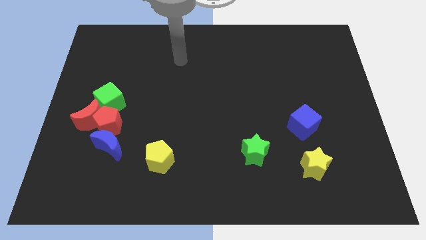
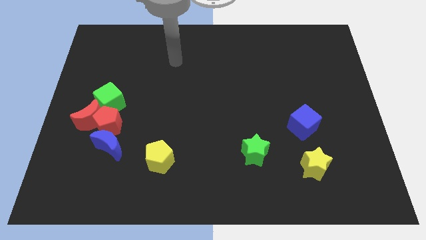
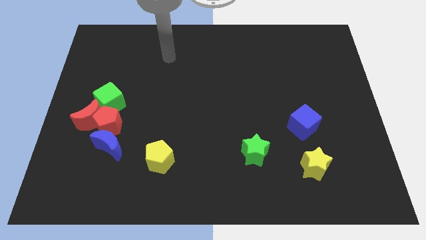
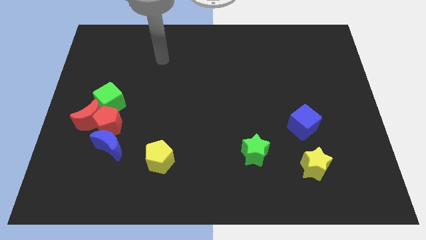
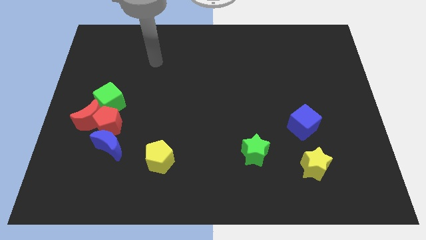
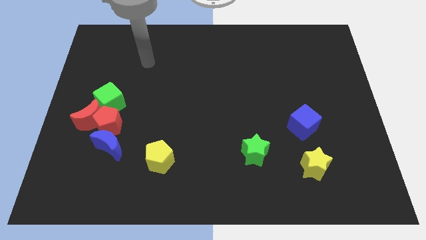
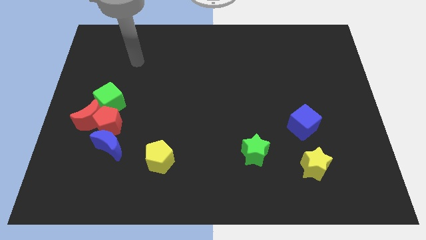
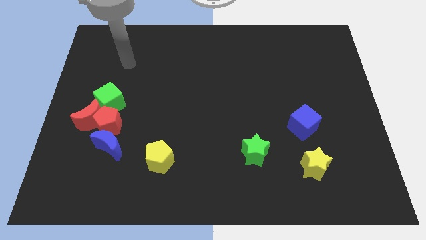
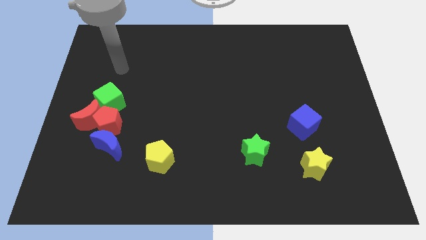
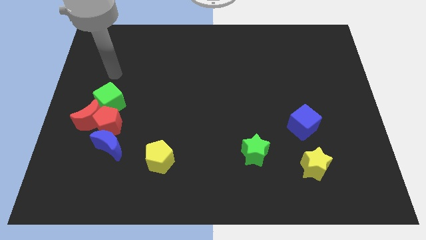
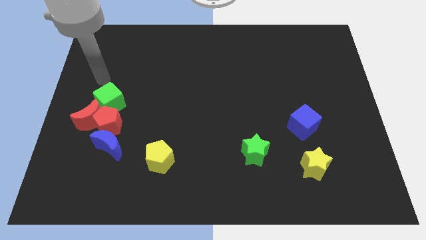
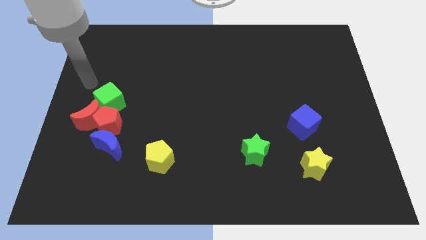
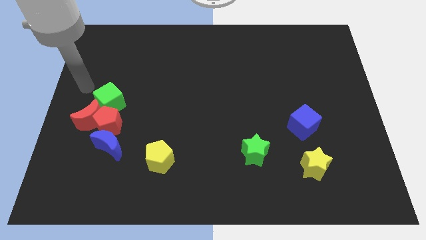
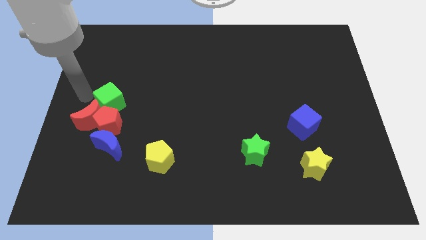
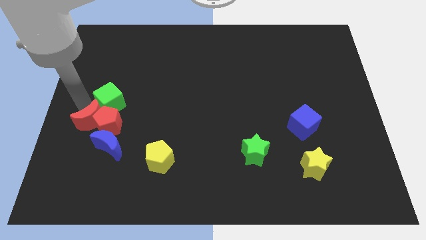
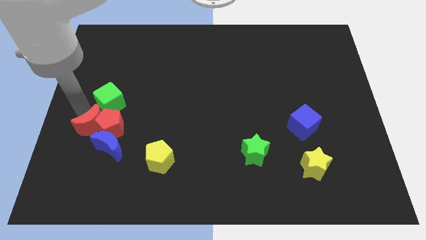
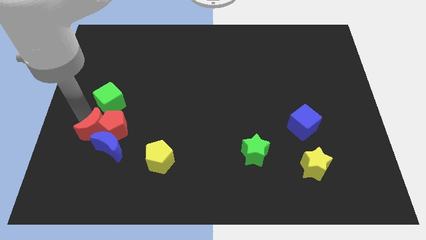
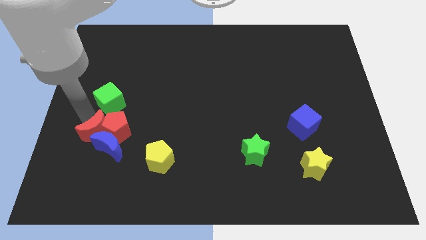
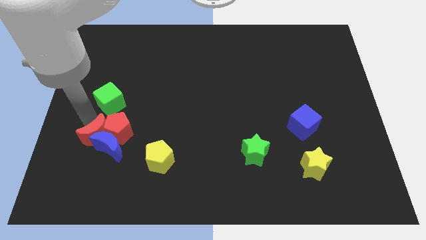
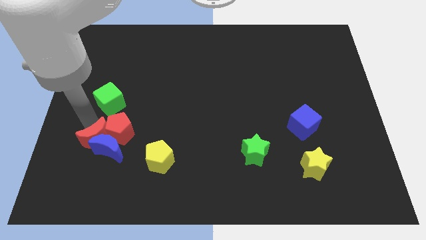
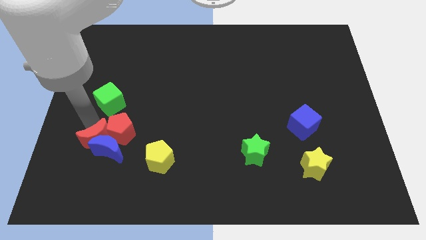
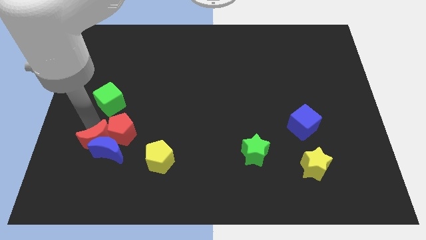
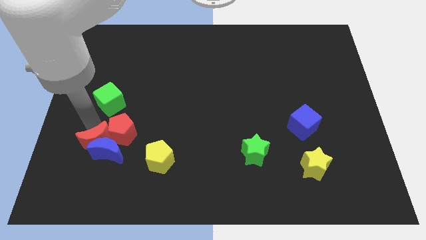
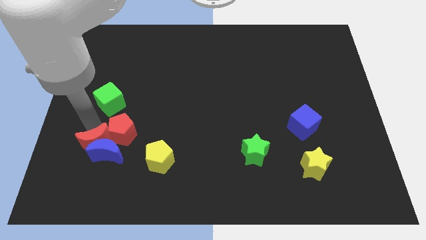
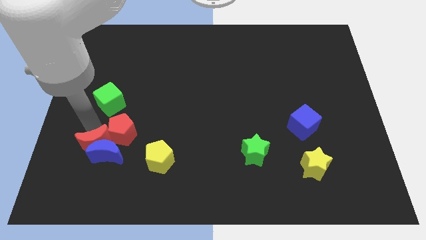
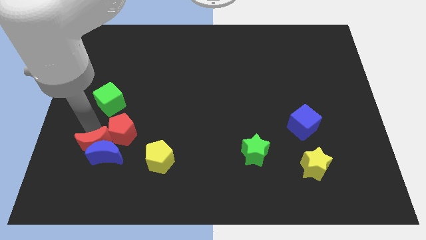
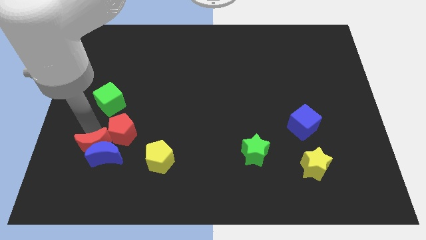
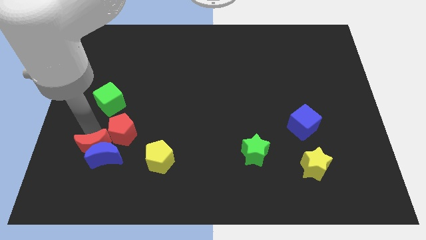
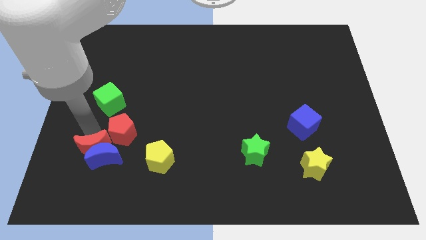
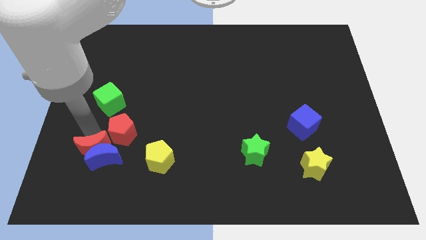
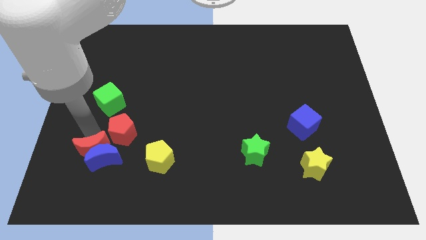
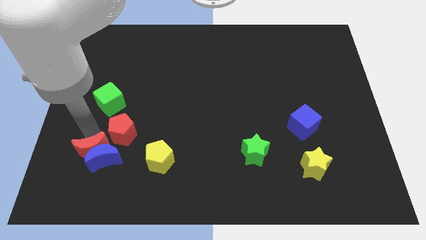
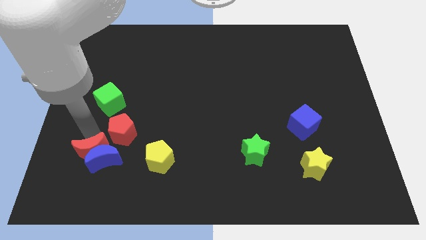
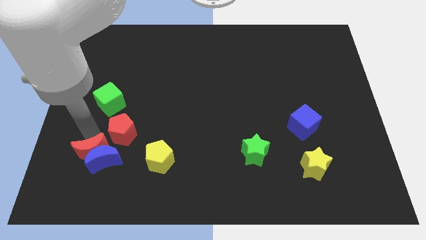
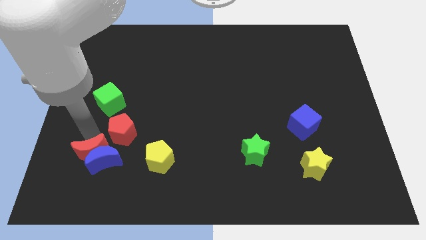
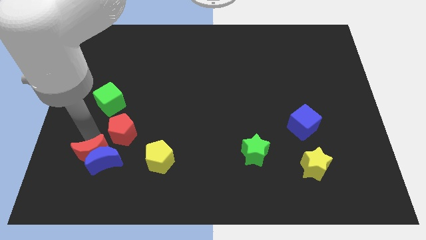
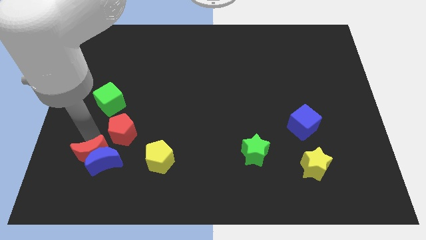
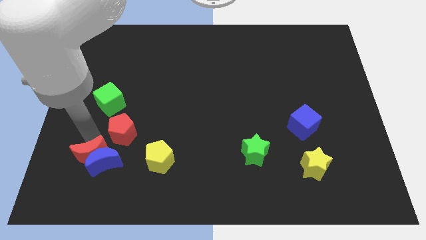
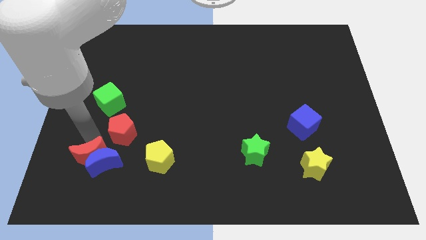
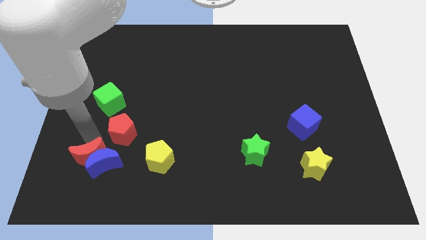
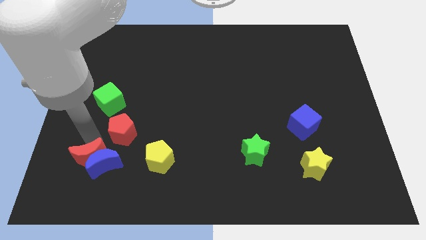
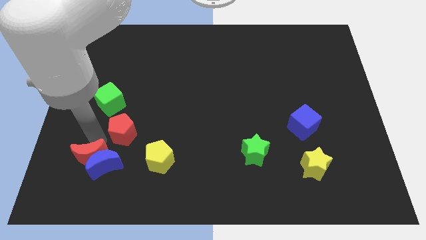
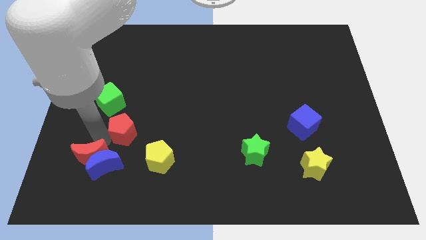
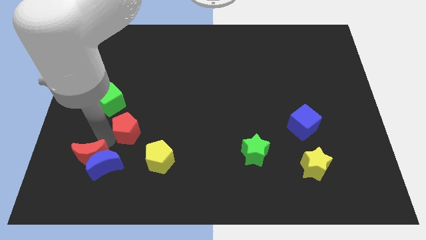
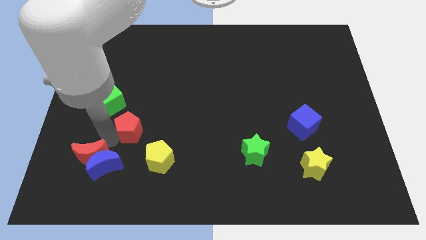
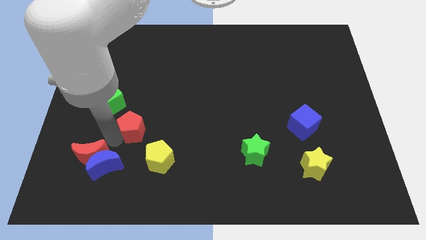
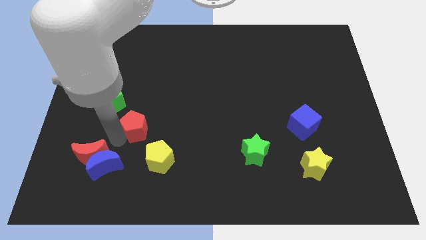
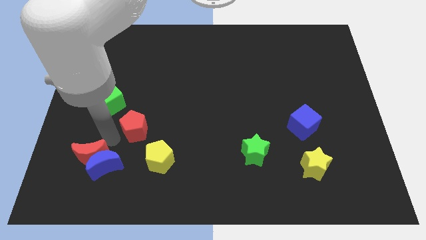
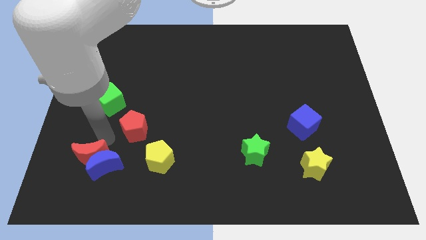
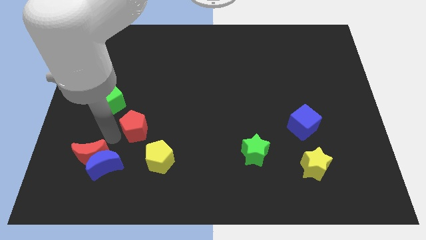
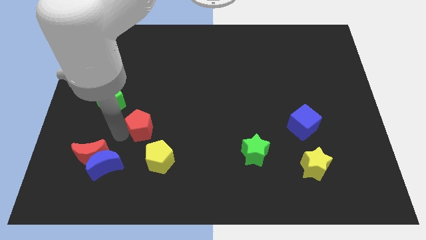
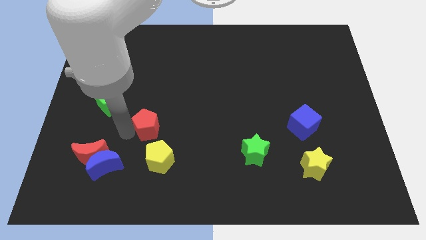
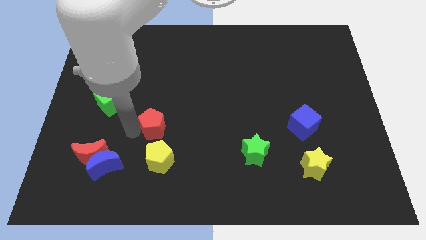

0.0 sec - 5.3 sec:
pull the red pentagon apart from the red moon, blue moon, and green cube

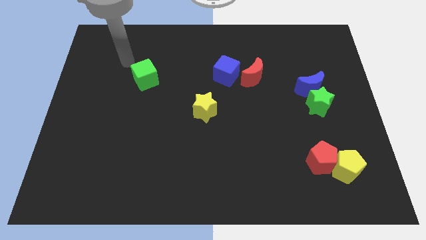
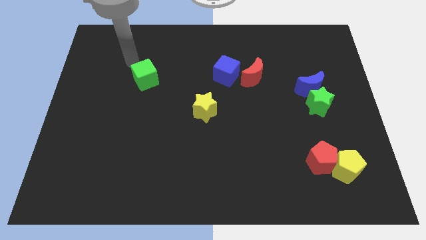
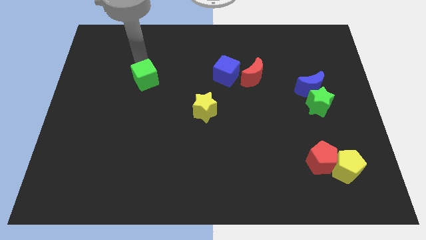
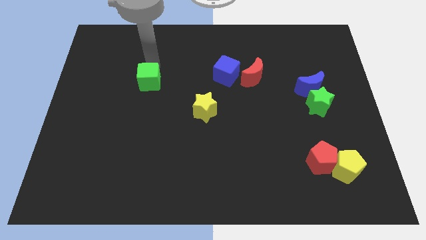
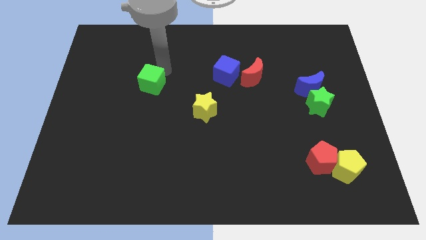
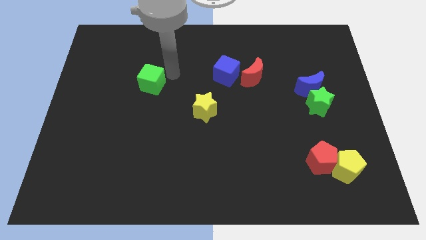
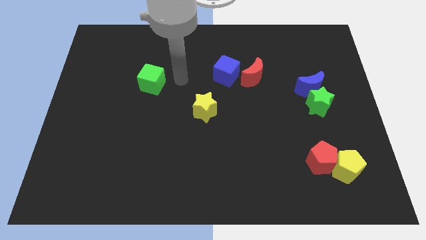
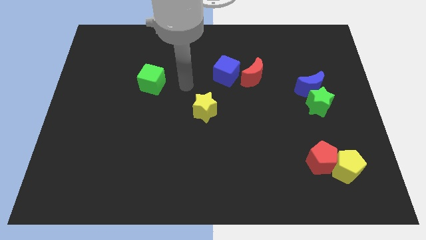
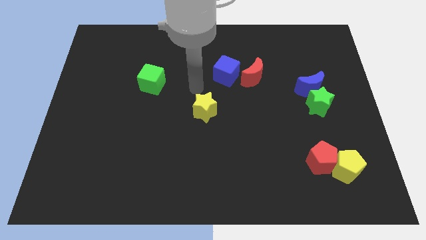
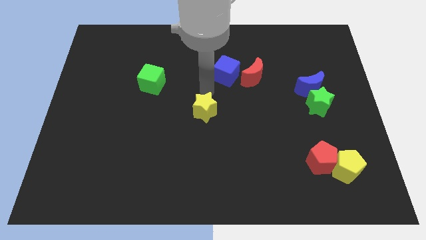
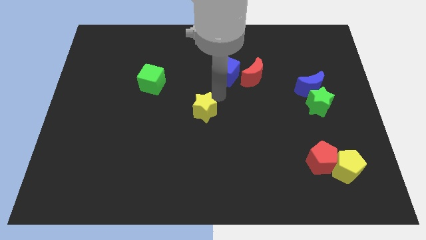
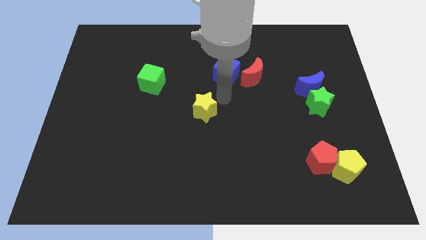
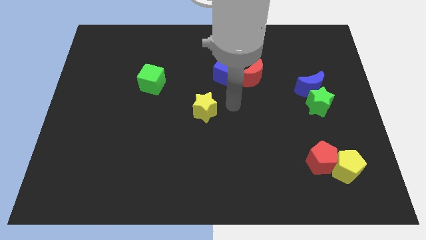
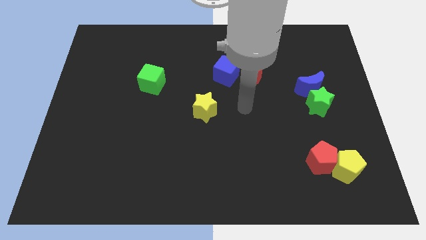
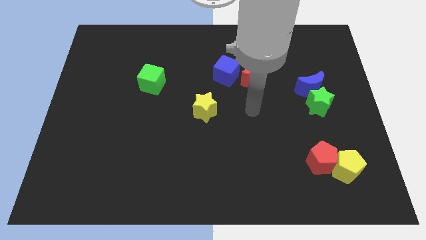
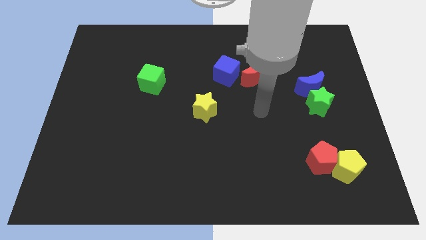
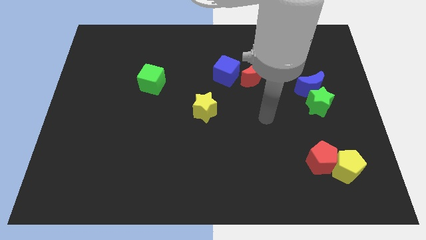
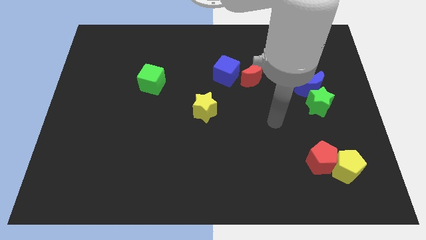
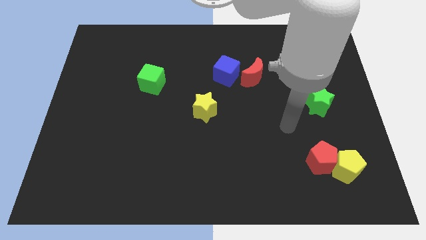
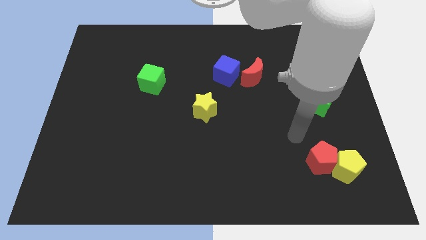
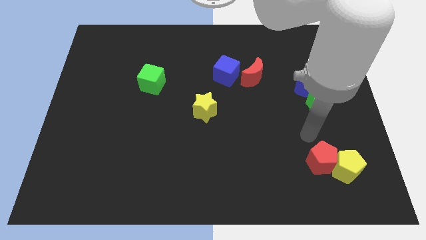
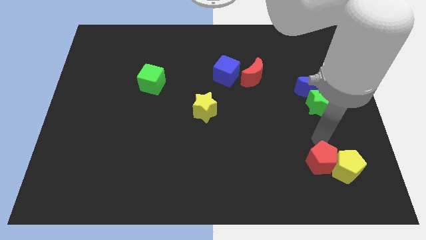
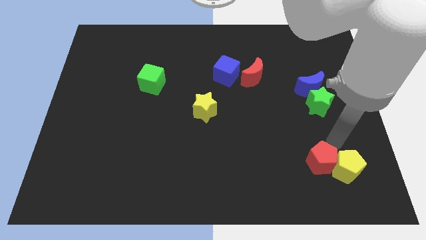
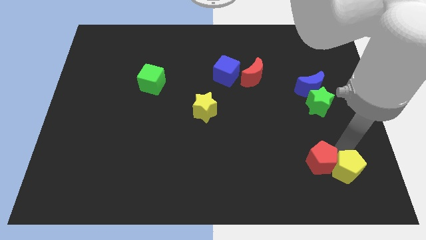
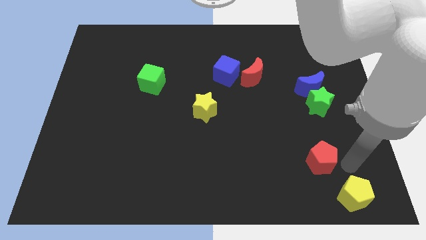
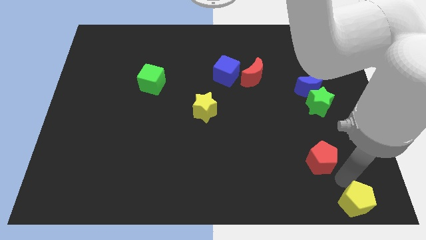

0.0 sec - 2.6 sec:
pull the red pentagon apart from the yellow pentagon

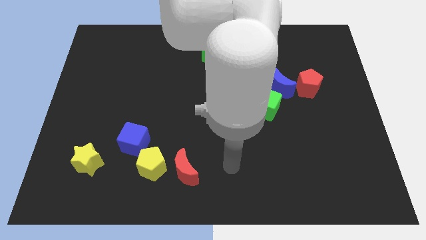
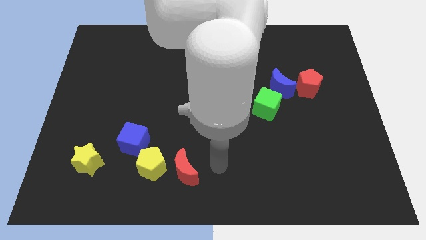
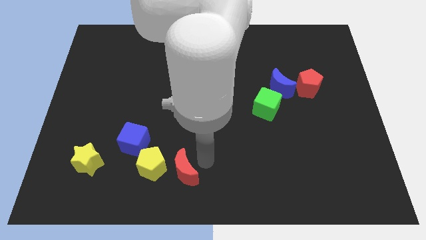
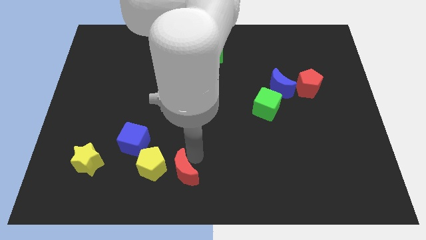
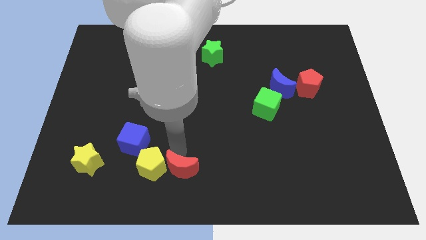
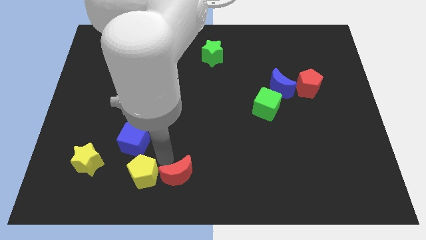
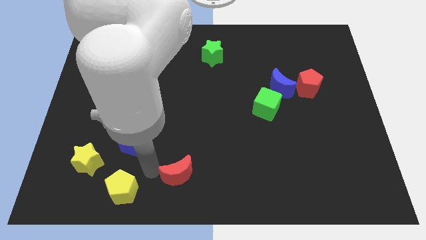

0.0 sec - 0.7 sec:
move the red moon away from the yellow pentagon

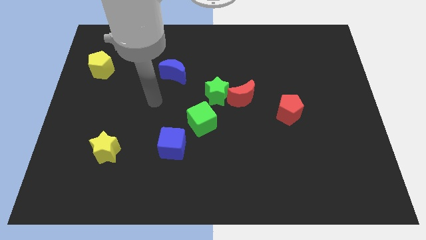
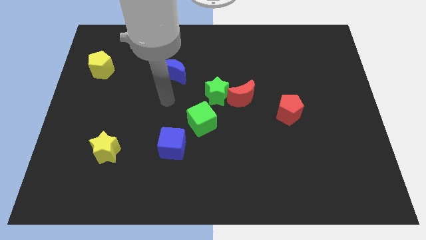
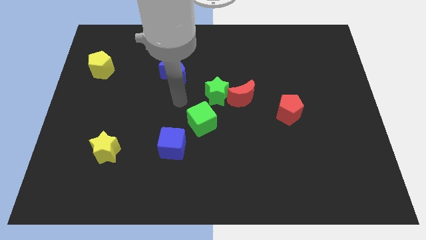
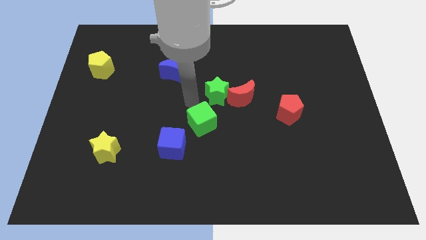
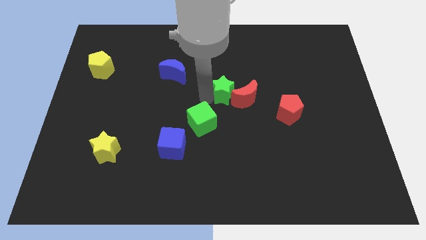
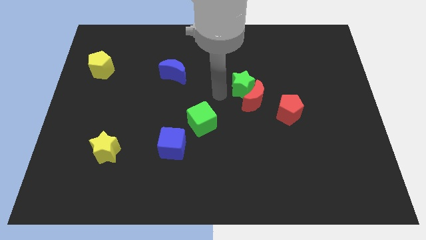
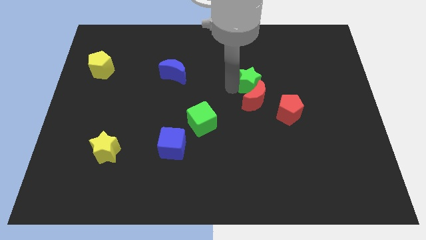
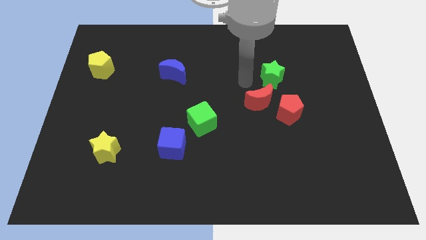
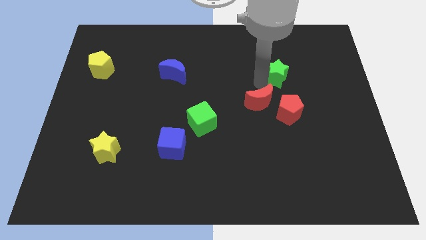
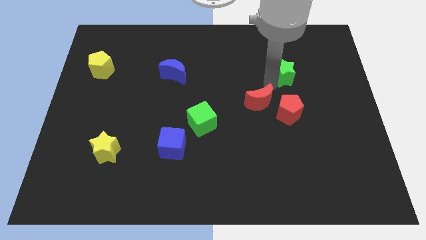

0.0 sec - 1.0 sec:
separate the red moon from the green star
